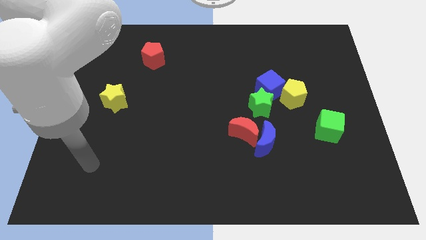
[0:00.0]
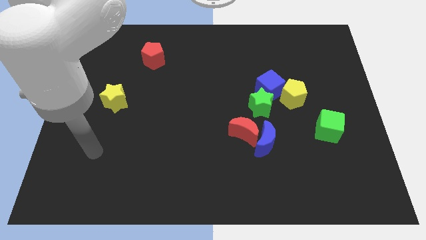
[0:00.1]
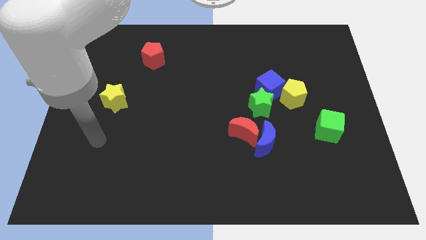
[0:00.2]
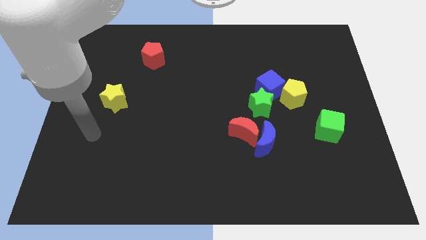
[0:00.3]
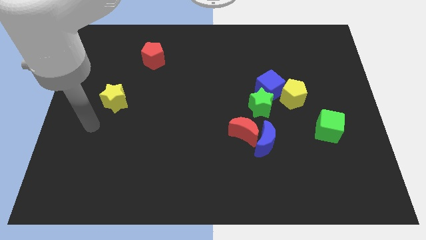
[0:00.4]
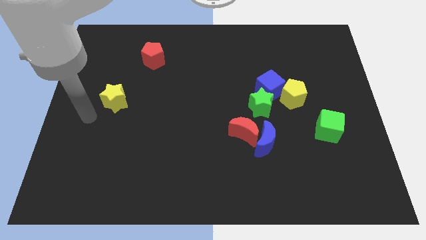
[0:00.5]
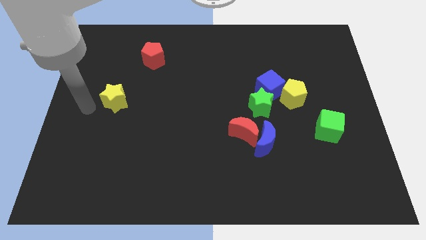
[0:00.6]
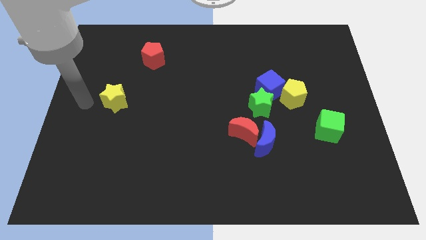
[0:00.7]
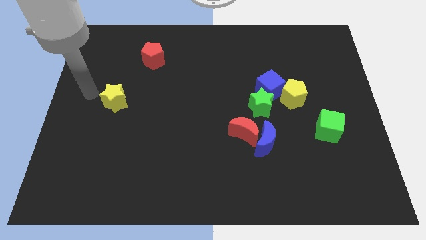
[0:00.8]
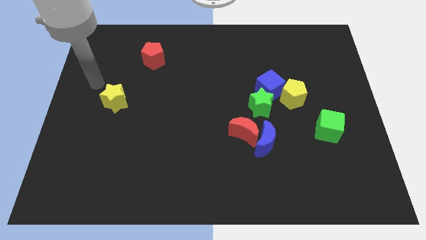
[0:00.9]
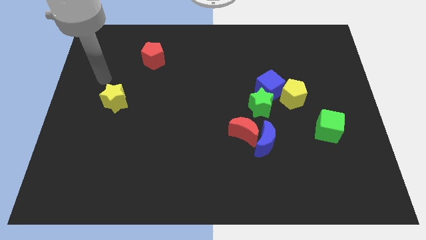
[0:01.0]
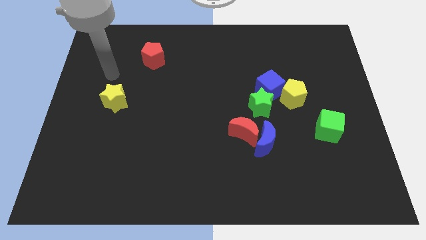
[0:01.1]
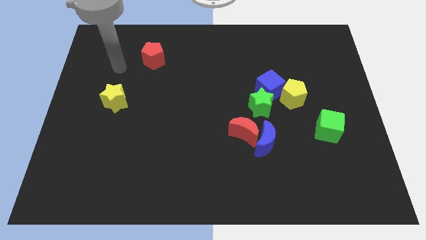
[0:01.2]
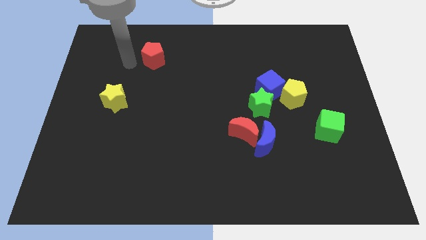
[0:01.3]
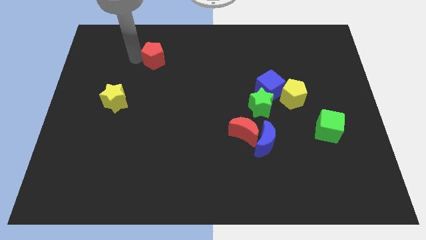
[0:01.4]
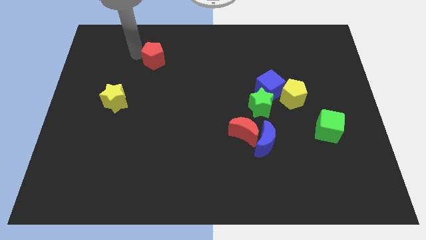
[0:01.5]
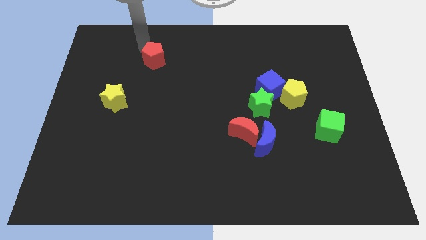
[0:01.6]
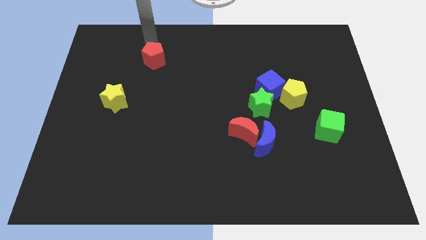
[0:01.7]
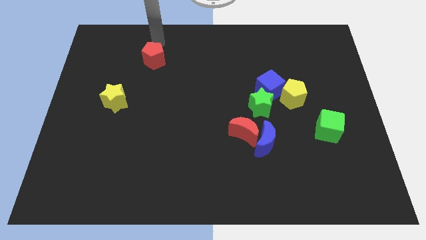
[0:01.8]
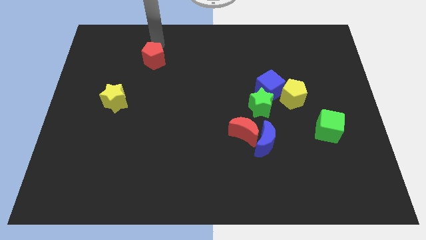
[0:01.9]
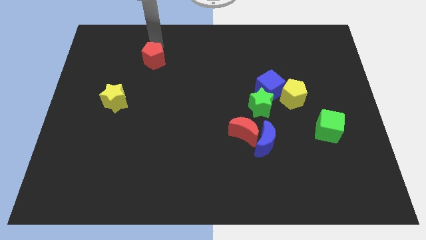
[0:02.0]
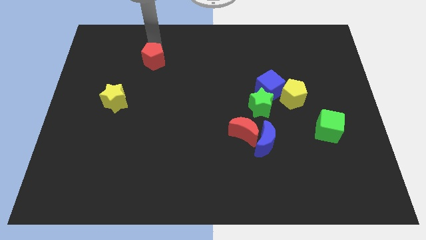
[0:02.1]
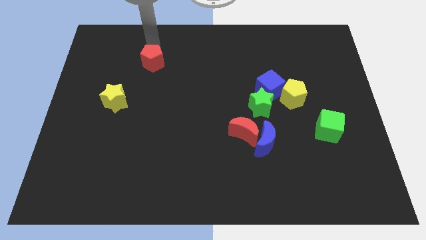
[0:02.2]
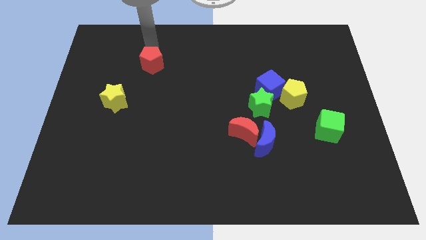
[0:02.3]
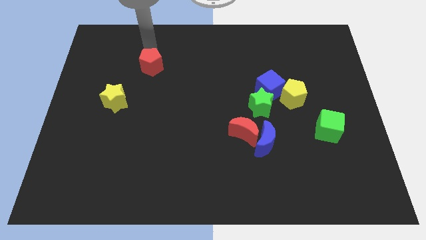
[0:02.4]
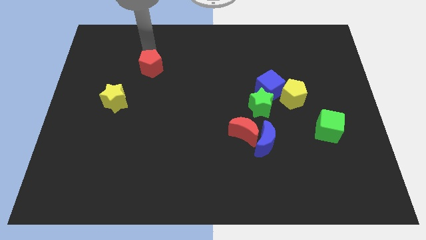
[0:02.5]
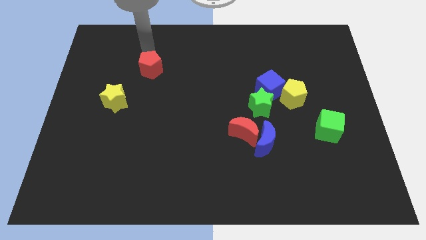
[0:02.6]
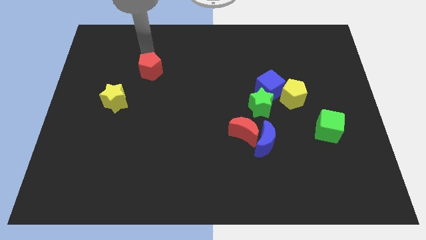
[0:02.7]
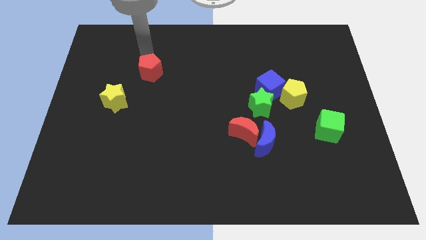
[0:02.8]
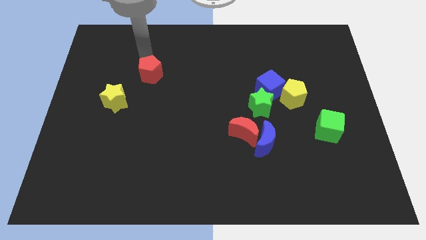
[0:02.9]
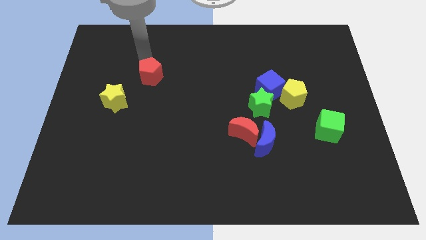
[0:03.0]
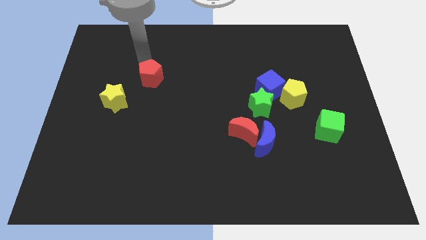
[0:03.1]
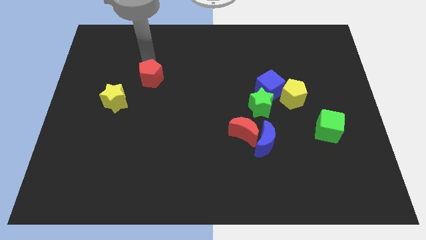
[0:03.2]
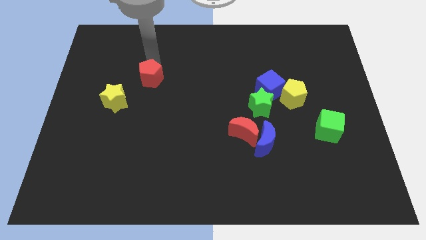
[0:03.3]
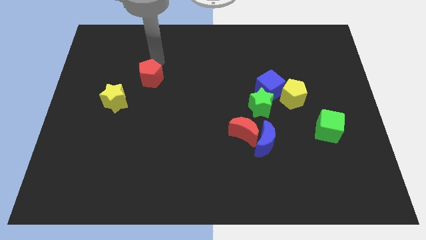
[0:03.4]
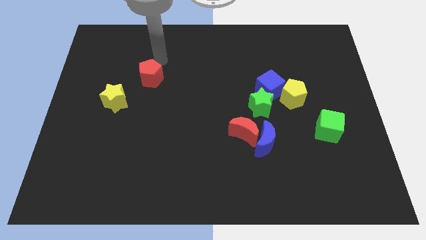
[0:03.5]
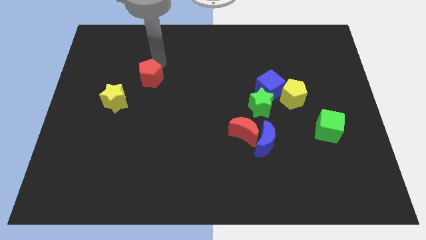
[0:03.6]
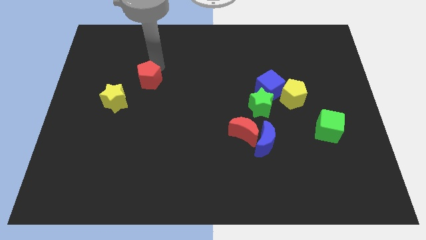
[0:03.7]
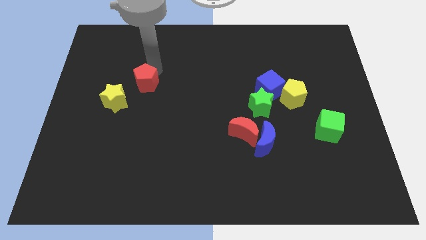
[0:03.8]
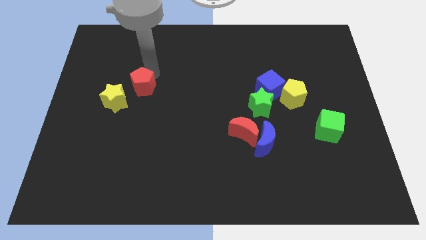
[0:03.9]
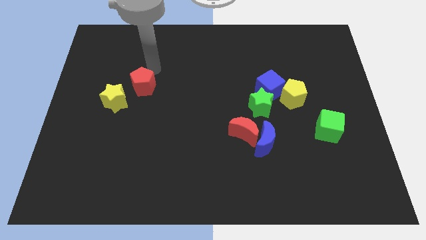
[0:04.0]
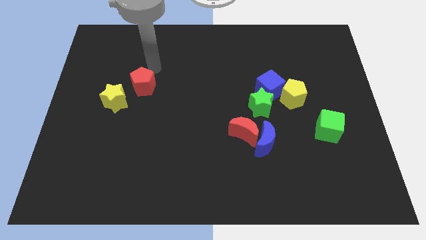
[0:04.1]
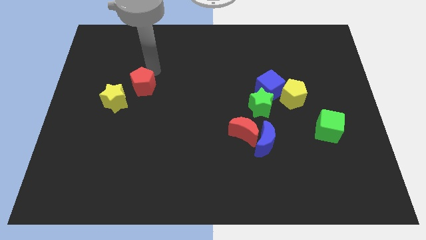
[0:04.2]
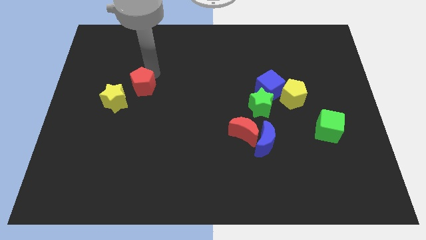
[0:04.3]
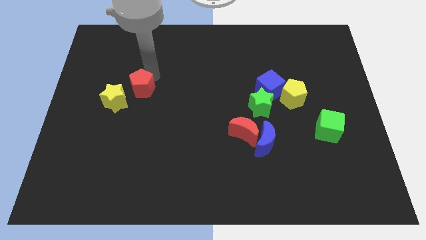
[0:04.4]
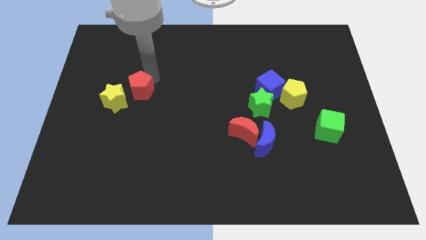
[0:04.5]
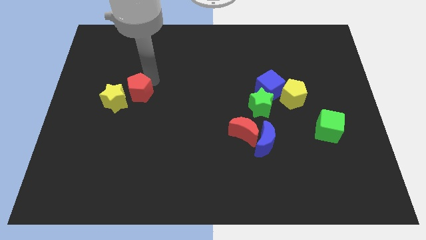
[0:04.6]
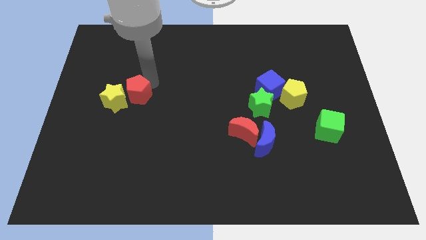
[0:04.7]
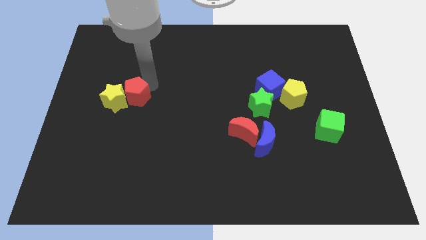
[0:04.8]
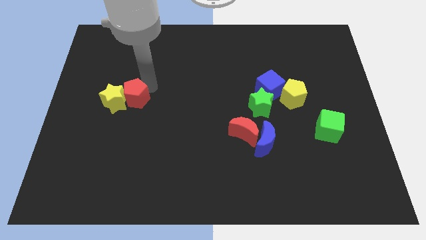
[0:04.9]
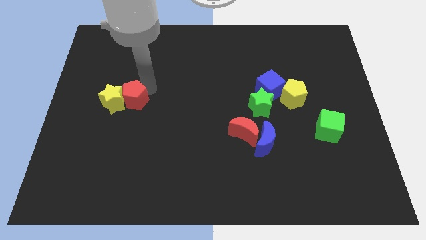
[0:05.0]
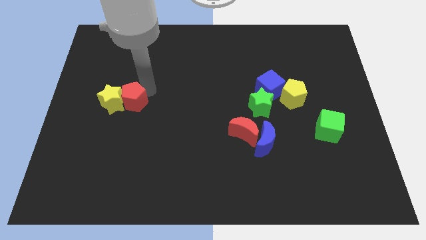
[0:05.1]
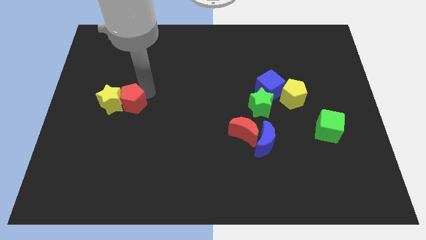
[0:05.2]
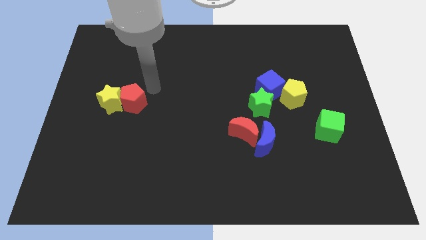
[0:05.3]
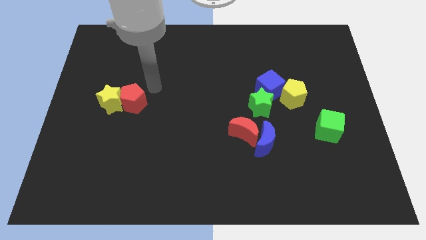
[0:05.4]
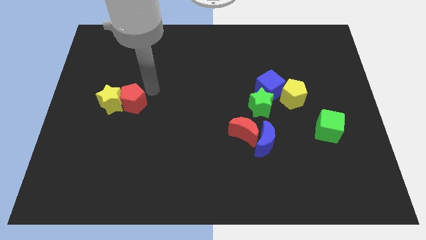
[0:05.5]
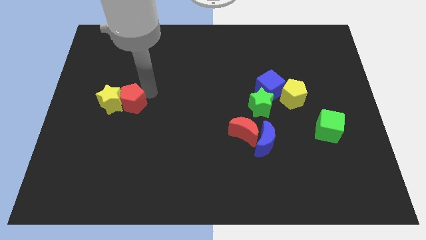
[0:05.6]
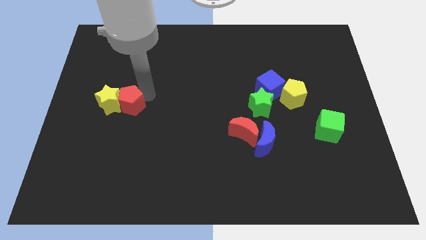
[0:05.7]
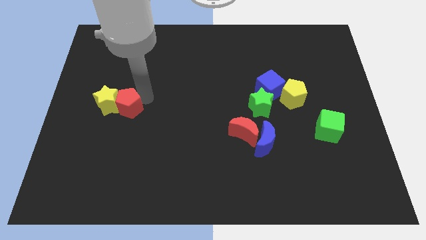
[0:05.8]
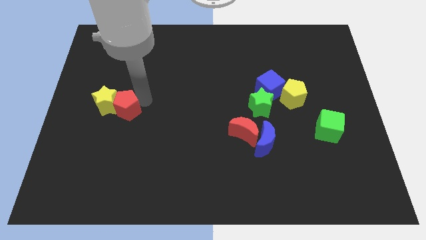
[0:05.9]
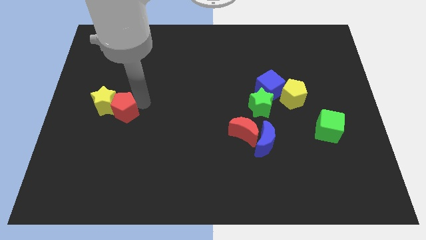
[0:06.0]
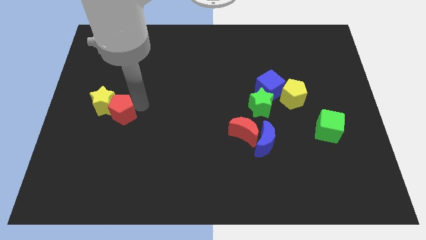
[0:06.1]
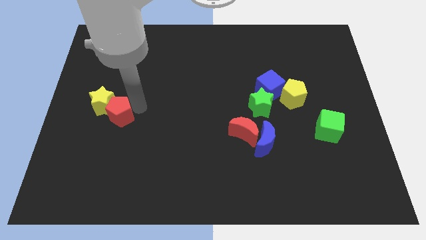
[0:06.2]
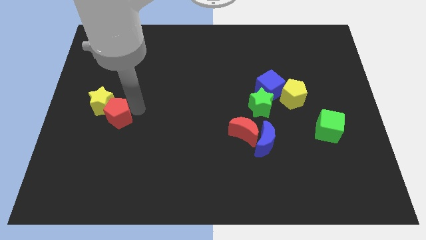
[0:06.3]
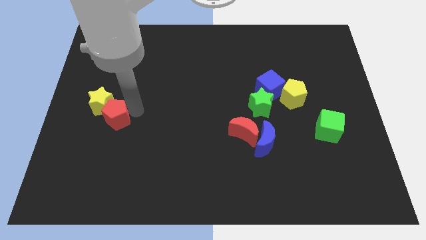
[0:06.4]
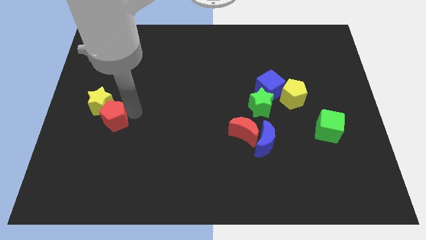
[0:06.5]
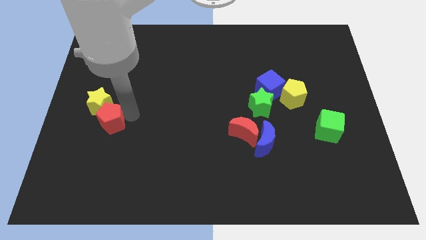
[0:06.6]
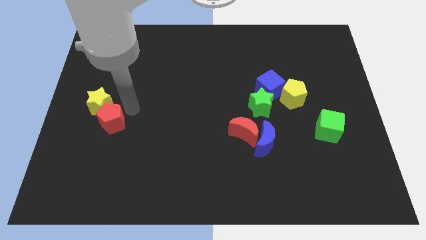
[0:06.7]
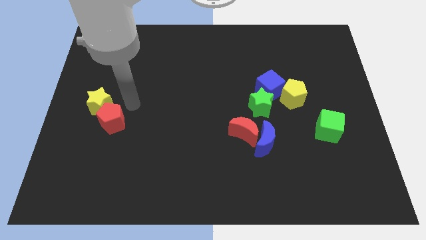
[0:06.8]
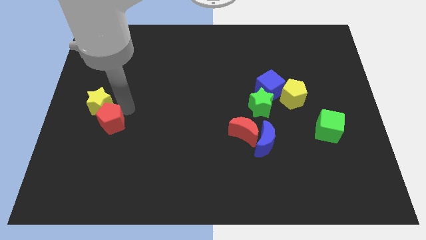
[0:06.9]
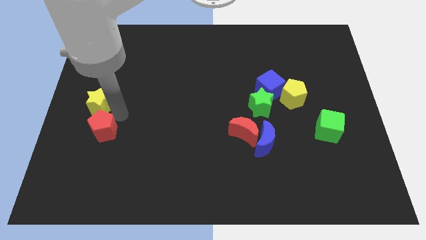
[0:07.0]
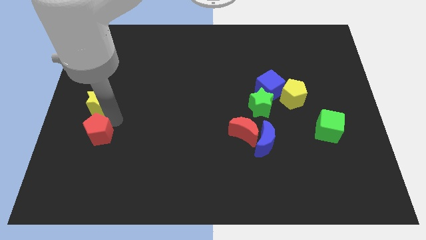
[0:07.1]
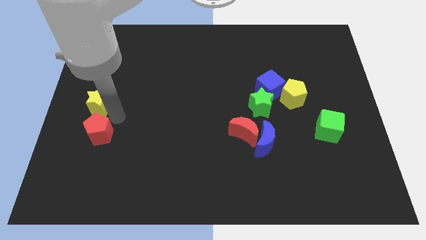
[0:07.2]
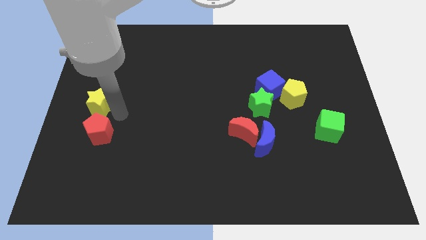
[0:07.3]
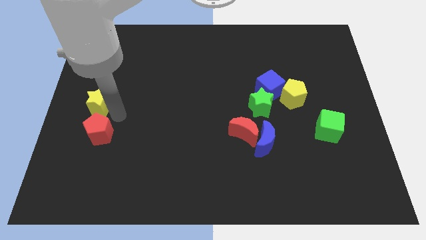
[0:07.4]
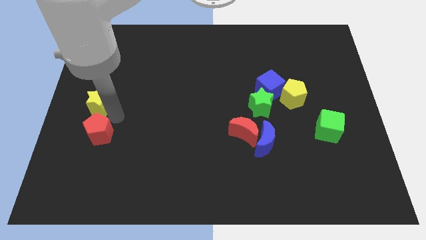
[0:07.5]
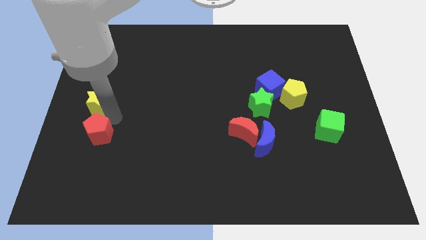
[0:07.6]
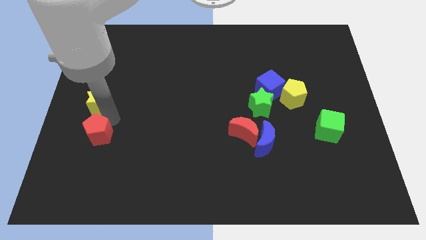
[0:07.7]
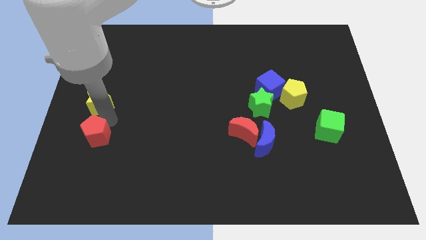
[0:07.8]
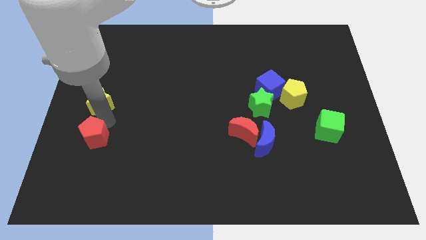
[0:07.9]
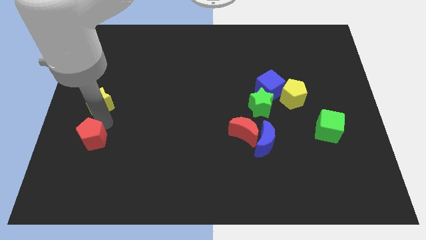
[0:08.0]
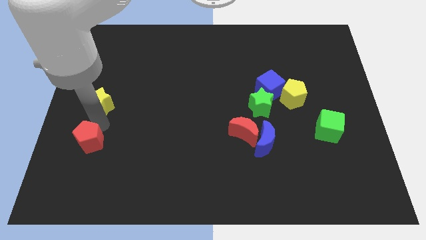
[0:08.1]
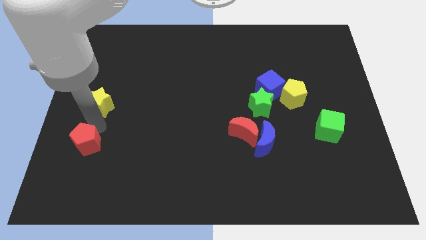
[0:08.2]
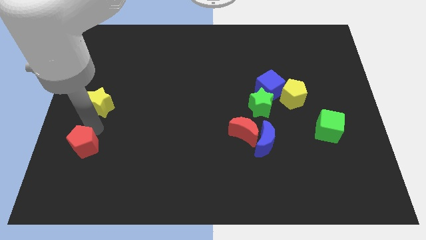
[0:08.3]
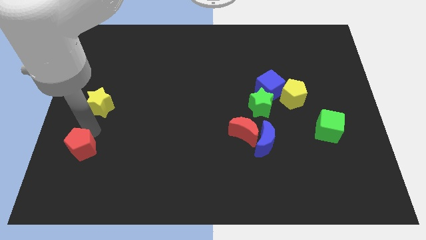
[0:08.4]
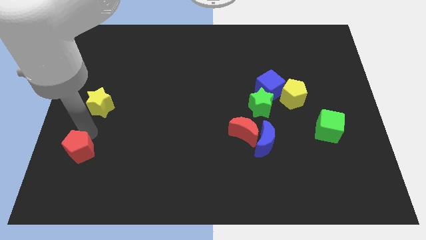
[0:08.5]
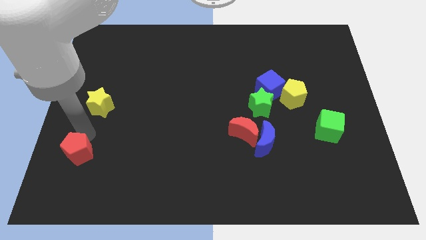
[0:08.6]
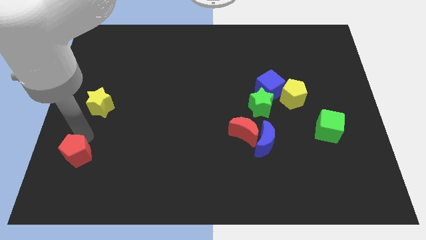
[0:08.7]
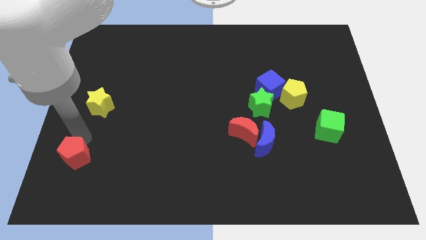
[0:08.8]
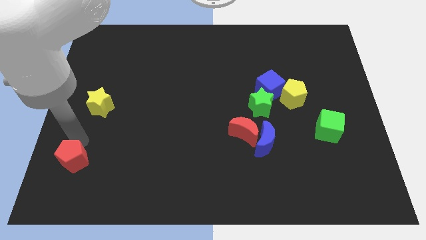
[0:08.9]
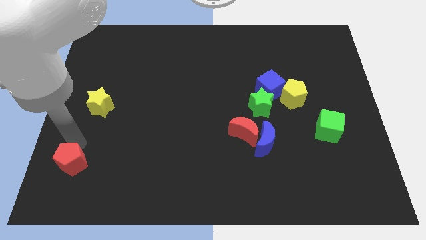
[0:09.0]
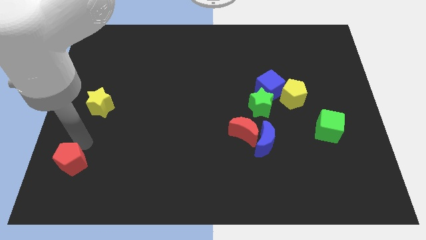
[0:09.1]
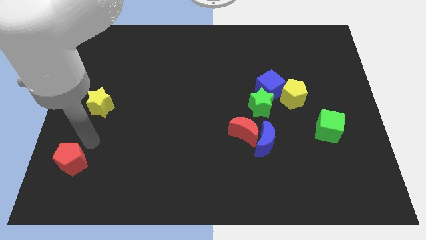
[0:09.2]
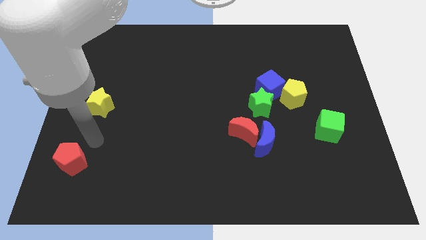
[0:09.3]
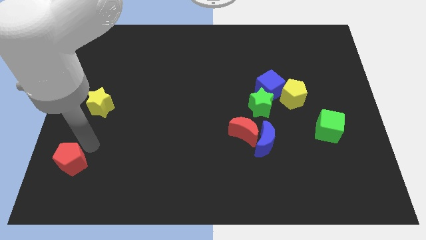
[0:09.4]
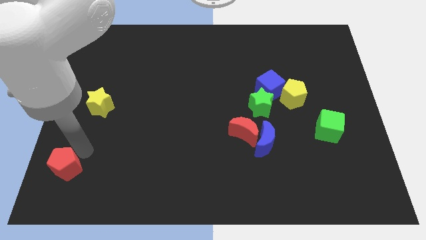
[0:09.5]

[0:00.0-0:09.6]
slide the red pentagon to the bottom left
